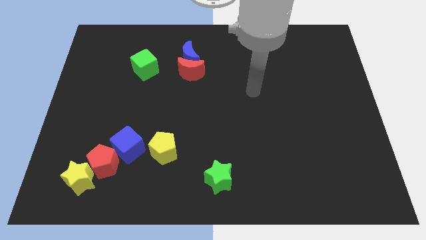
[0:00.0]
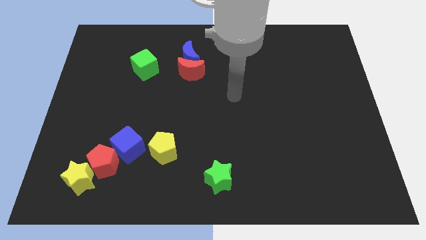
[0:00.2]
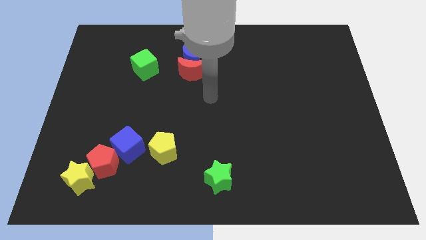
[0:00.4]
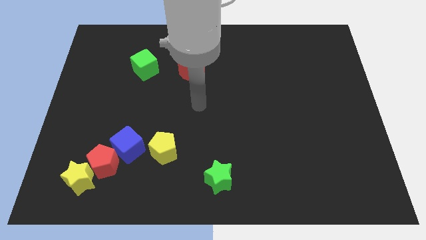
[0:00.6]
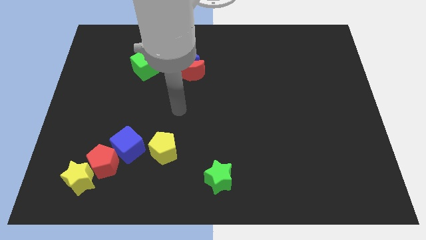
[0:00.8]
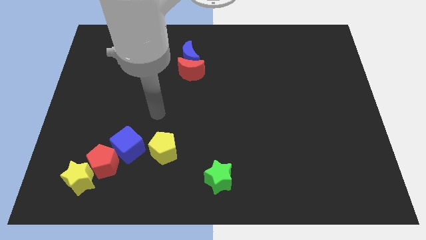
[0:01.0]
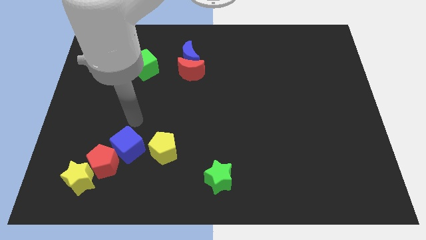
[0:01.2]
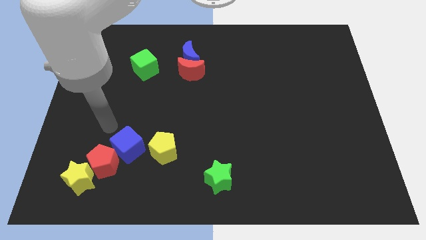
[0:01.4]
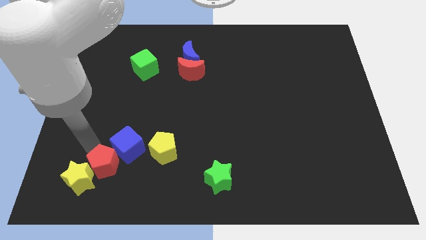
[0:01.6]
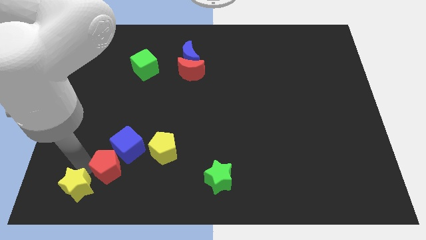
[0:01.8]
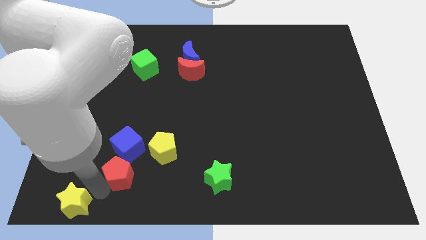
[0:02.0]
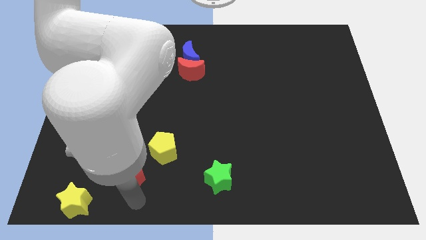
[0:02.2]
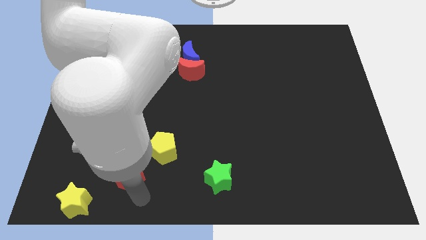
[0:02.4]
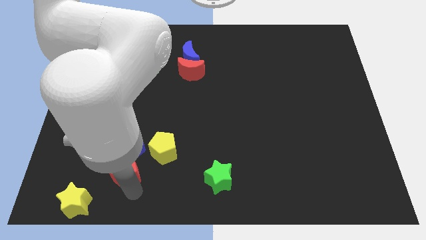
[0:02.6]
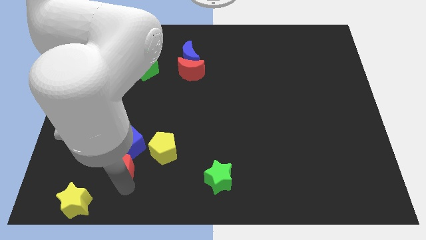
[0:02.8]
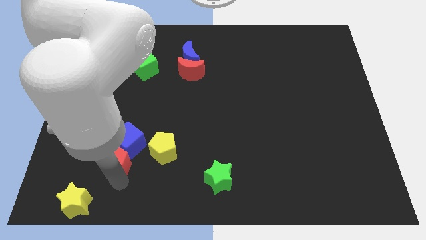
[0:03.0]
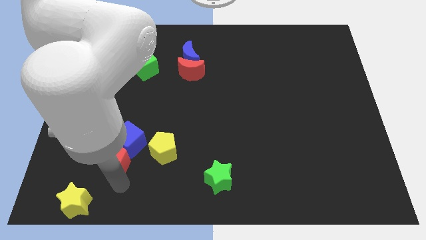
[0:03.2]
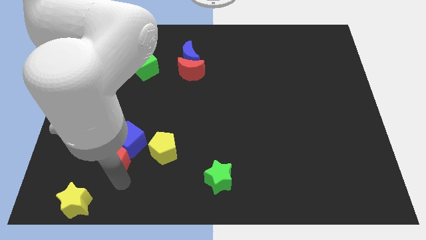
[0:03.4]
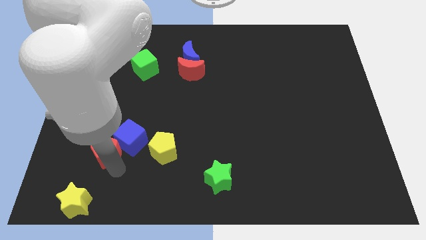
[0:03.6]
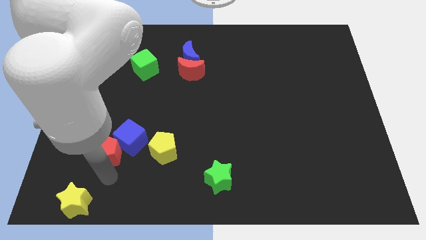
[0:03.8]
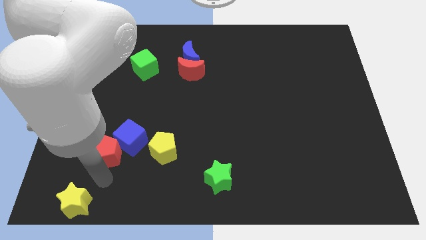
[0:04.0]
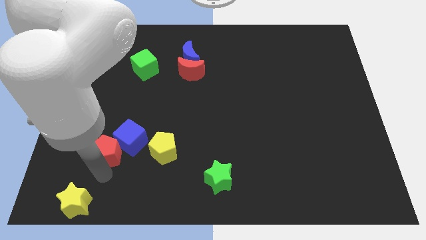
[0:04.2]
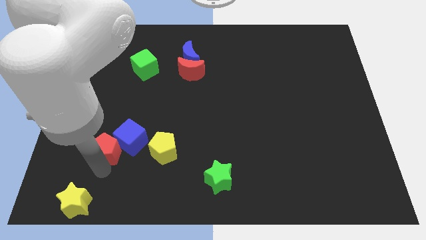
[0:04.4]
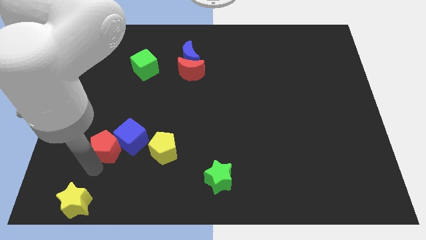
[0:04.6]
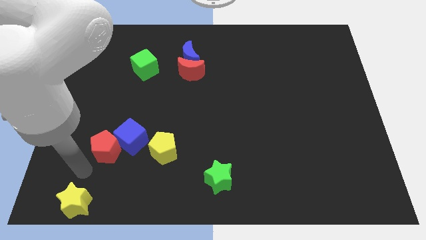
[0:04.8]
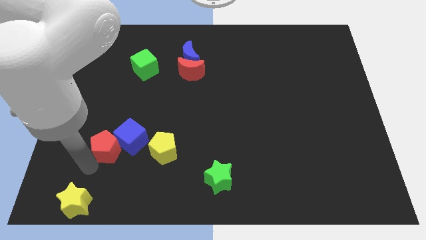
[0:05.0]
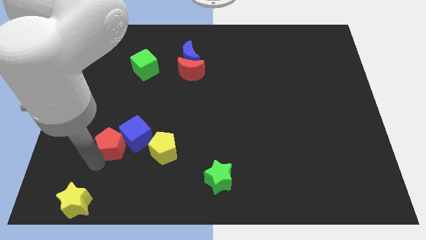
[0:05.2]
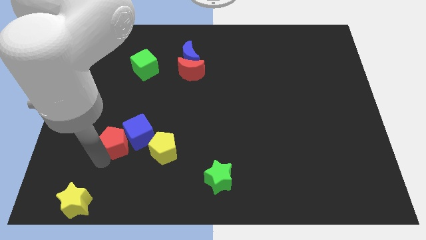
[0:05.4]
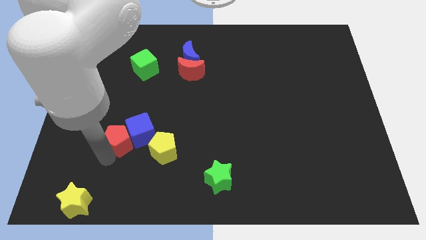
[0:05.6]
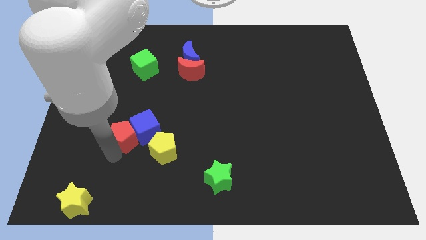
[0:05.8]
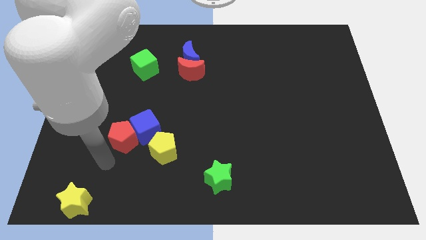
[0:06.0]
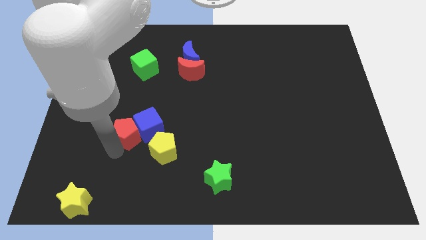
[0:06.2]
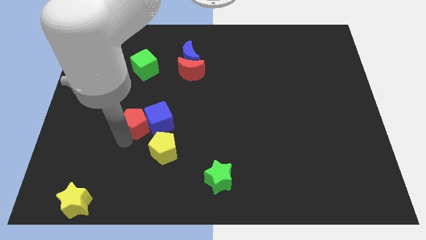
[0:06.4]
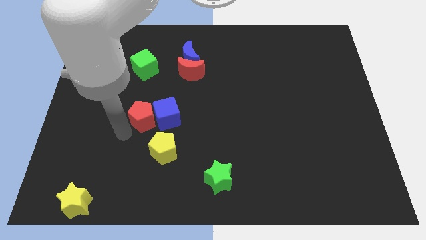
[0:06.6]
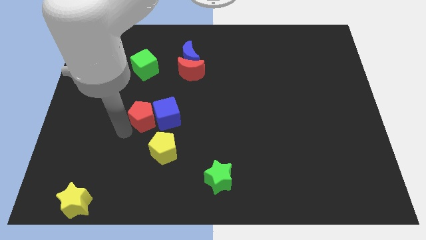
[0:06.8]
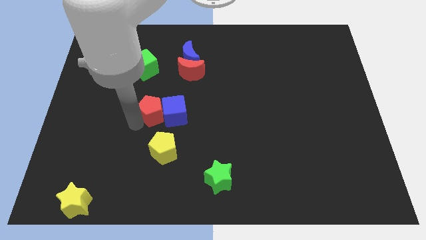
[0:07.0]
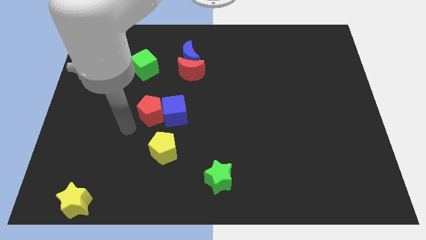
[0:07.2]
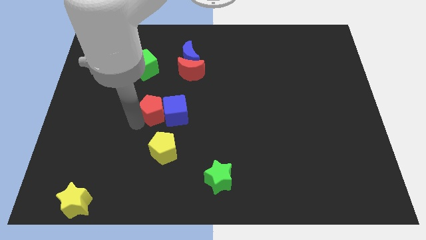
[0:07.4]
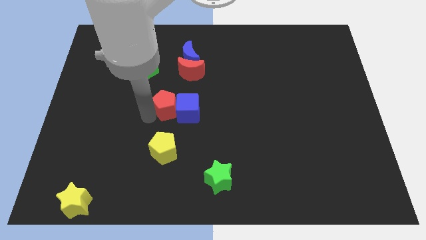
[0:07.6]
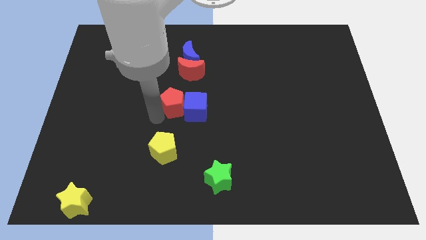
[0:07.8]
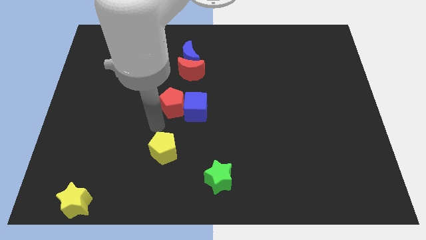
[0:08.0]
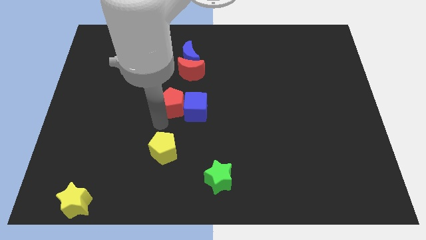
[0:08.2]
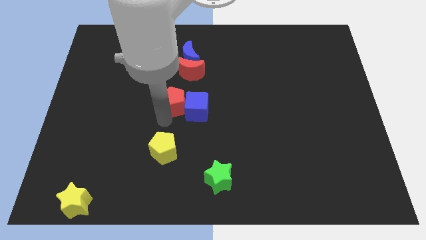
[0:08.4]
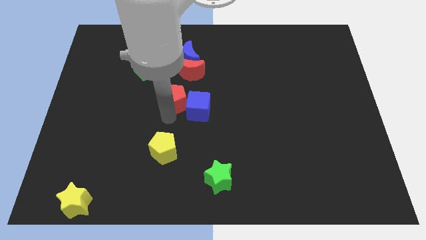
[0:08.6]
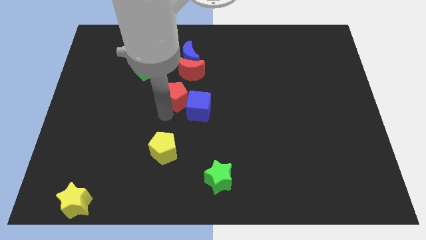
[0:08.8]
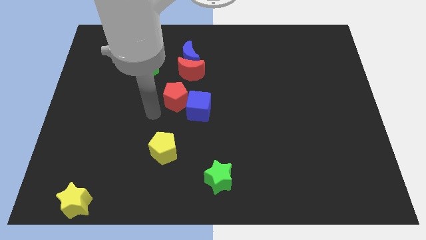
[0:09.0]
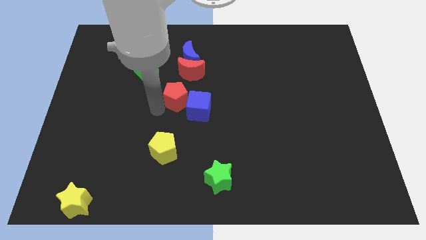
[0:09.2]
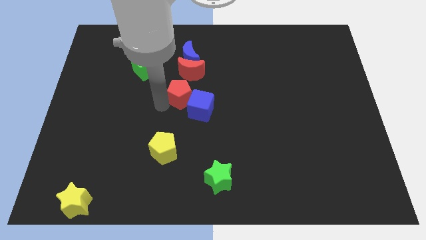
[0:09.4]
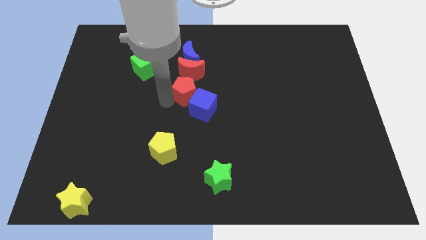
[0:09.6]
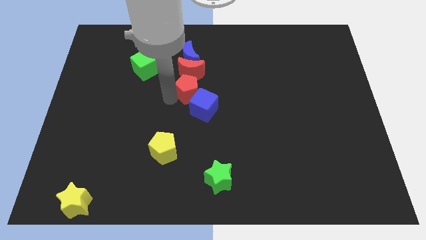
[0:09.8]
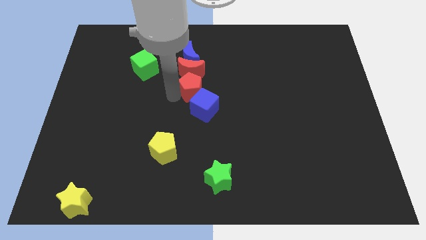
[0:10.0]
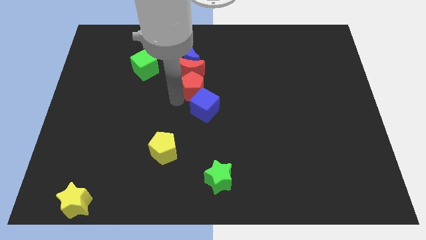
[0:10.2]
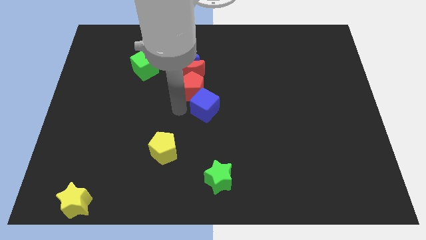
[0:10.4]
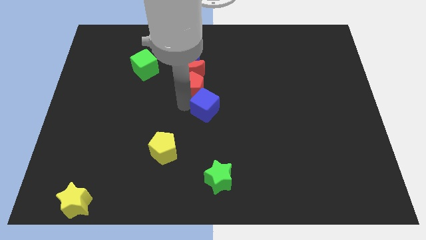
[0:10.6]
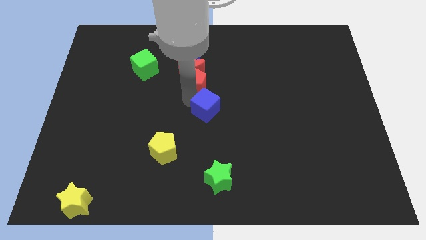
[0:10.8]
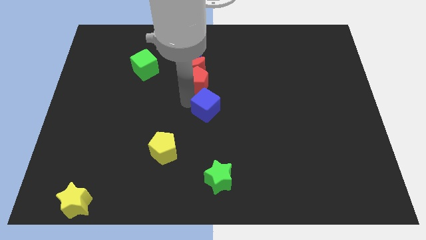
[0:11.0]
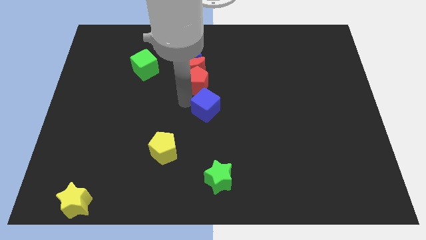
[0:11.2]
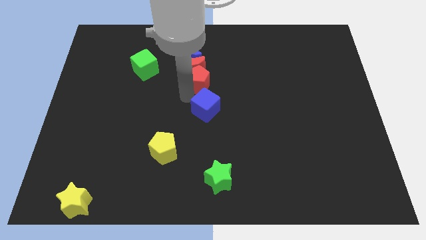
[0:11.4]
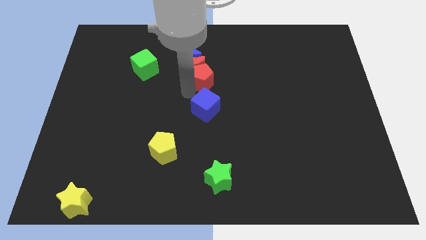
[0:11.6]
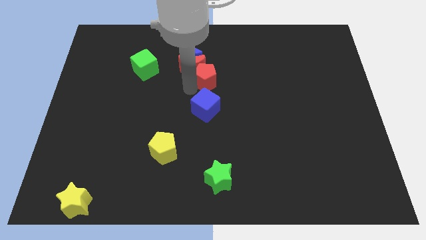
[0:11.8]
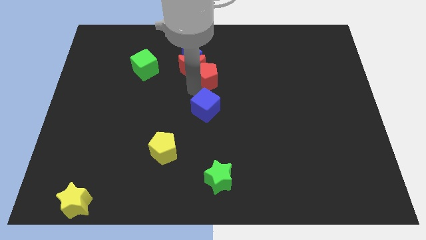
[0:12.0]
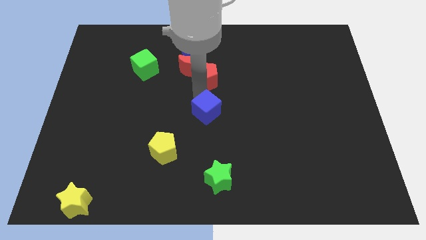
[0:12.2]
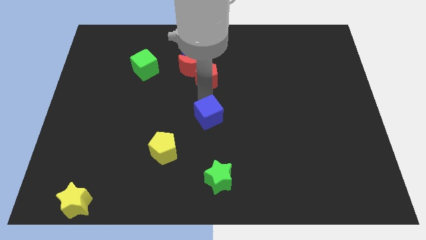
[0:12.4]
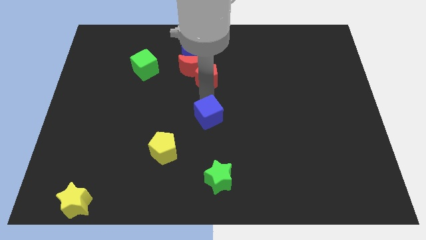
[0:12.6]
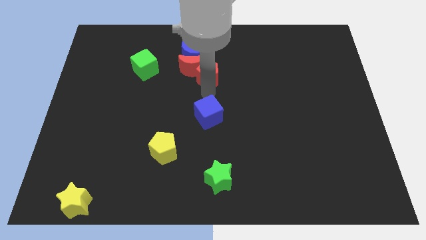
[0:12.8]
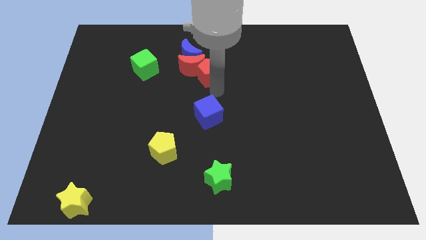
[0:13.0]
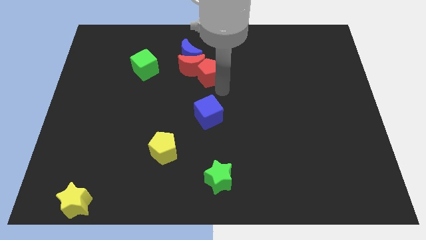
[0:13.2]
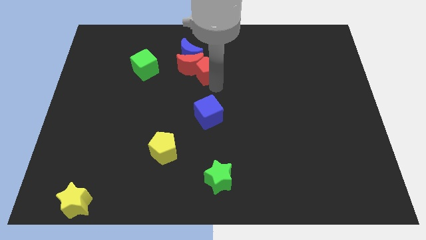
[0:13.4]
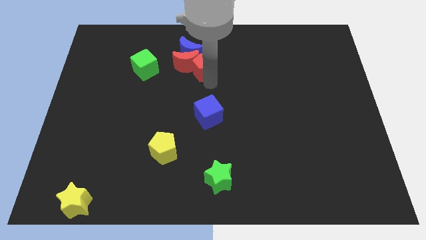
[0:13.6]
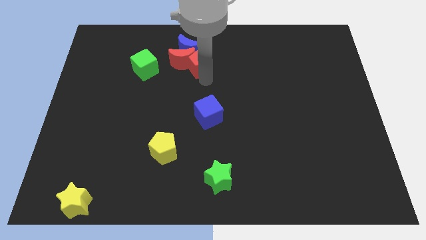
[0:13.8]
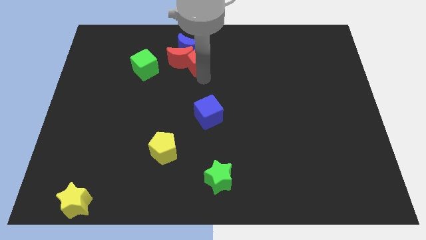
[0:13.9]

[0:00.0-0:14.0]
slide the red pentagon to the blue moon

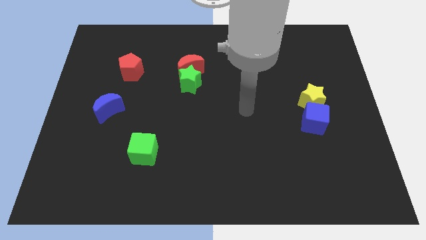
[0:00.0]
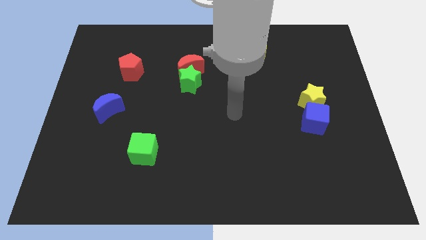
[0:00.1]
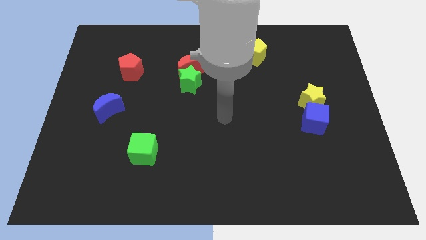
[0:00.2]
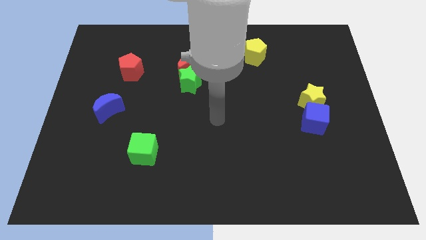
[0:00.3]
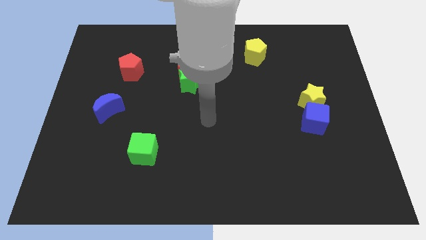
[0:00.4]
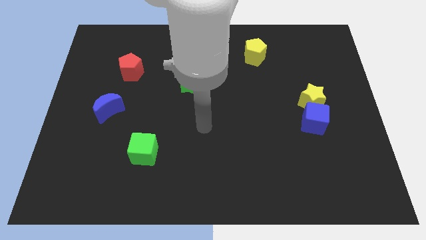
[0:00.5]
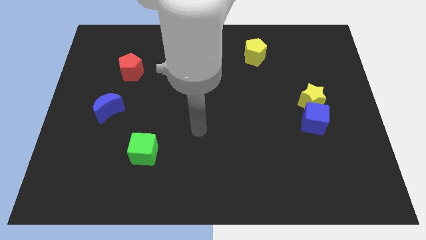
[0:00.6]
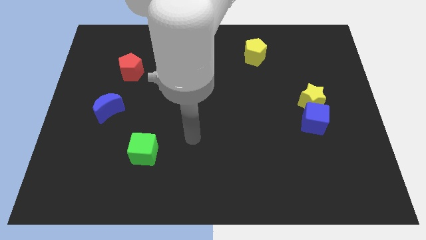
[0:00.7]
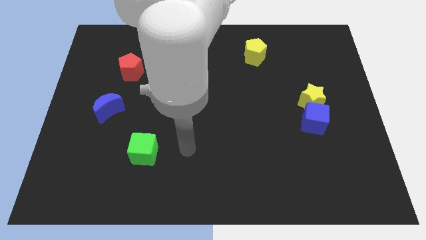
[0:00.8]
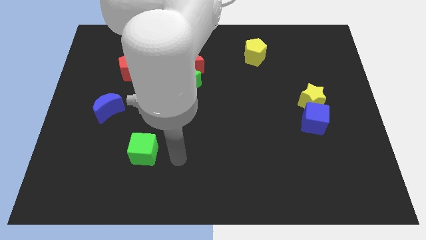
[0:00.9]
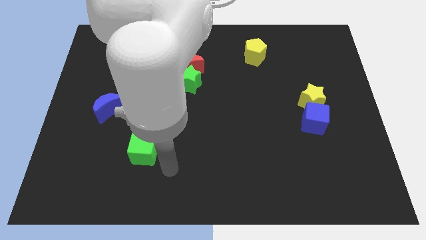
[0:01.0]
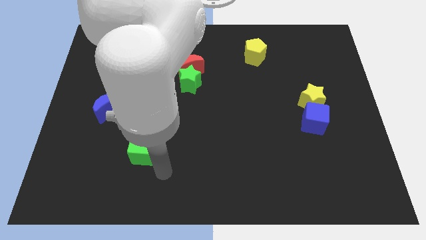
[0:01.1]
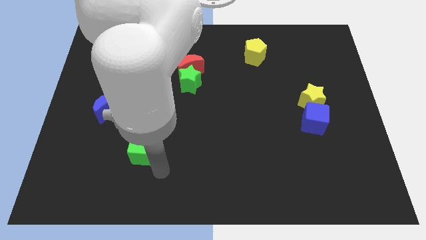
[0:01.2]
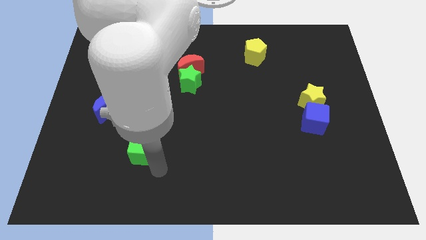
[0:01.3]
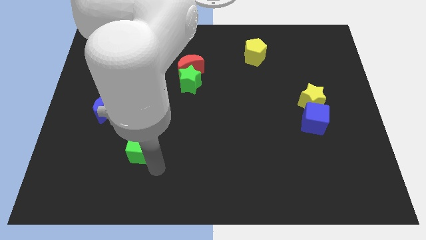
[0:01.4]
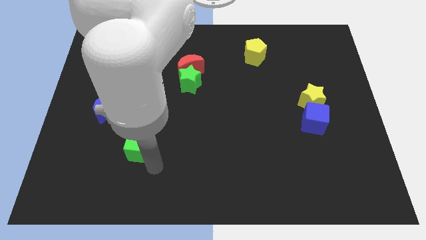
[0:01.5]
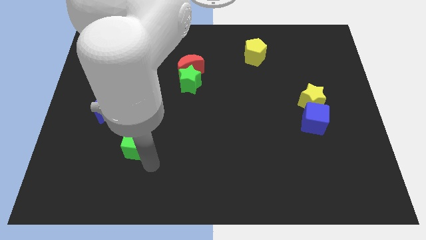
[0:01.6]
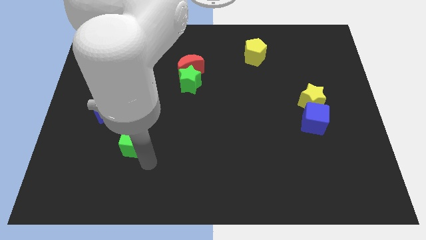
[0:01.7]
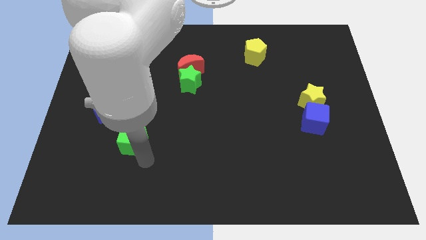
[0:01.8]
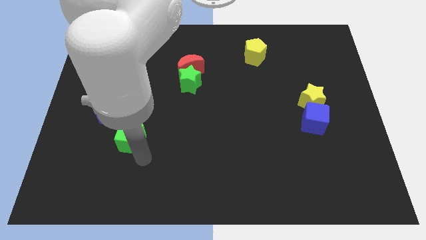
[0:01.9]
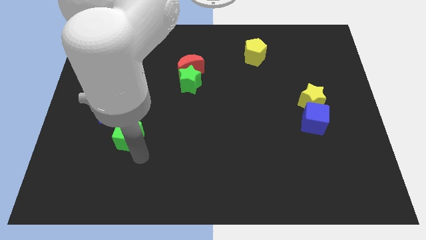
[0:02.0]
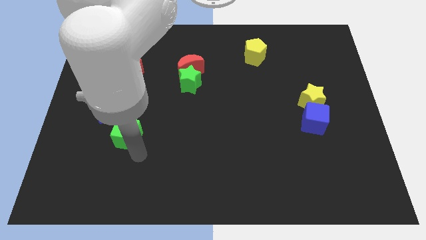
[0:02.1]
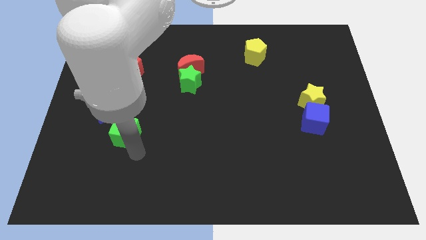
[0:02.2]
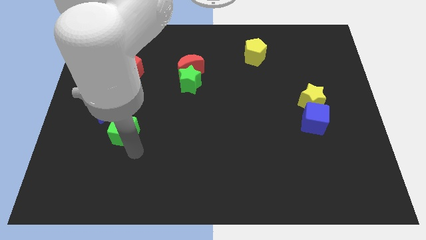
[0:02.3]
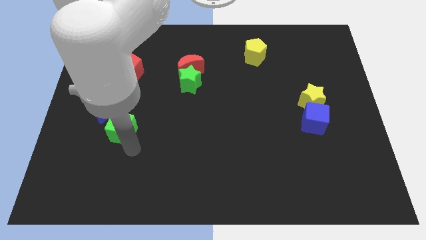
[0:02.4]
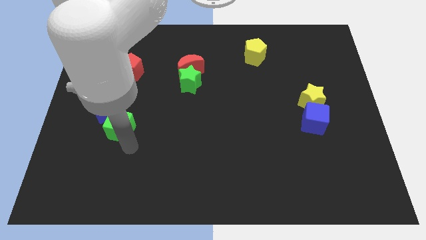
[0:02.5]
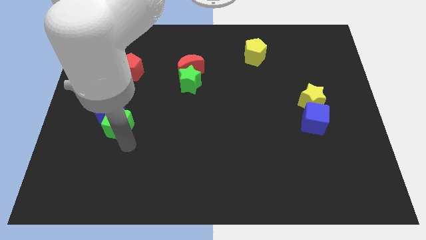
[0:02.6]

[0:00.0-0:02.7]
slide the green cube next to the blue moon
